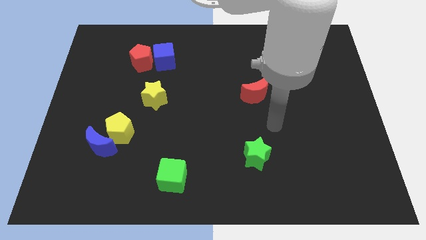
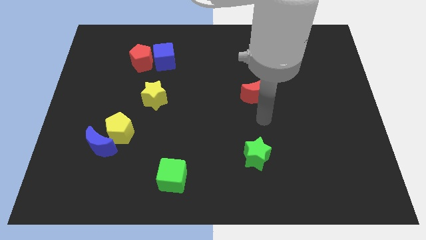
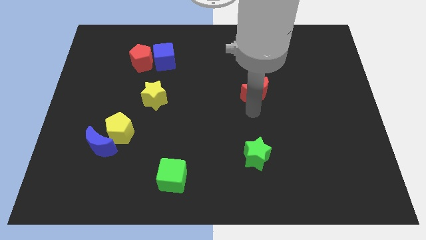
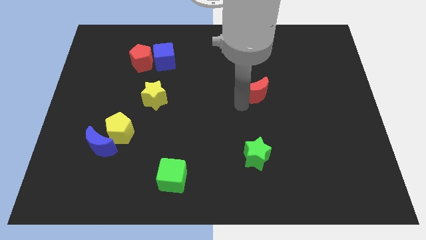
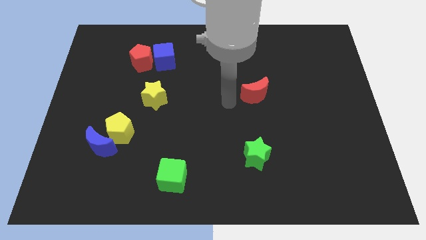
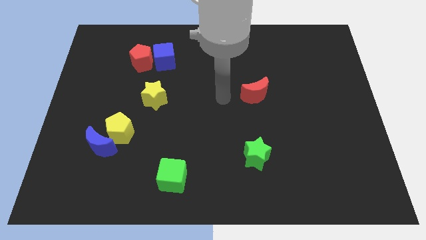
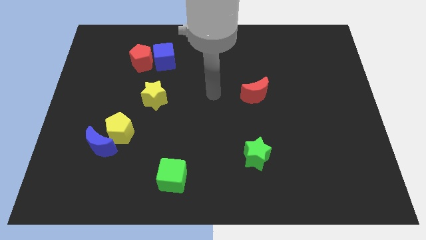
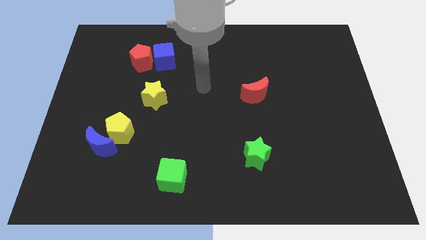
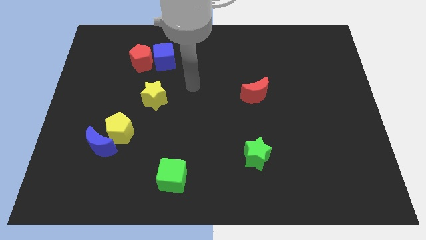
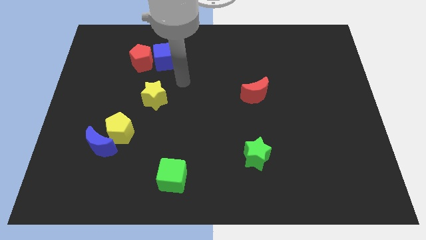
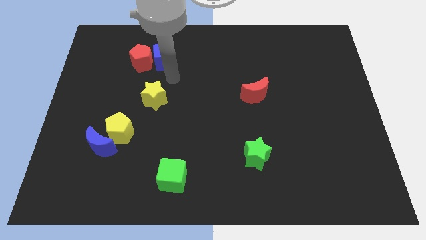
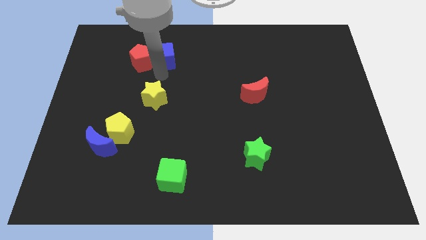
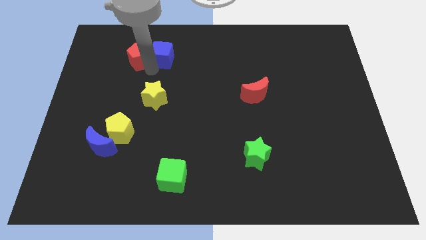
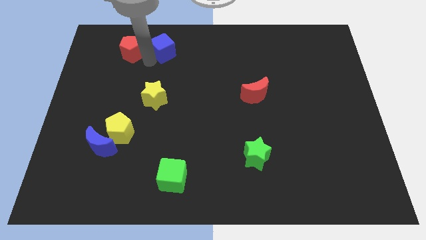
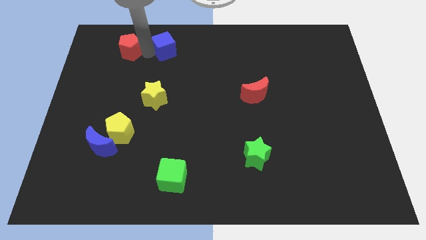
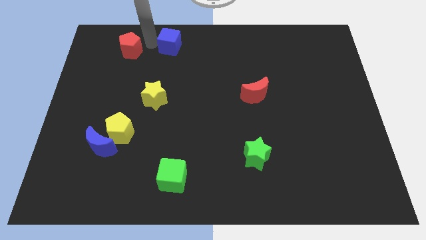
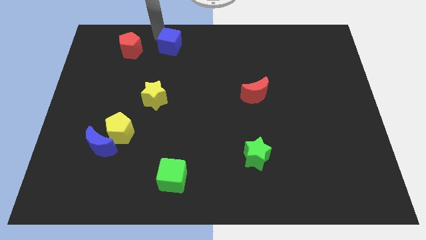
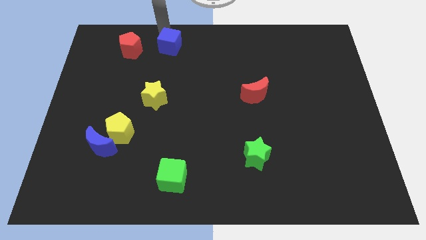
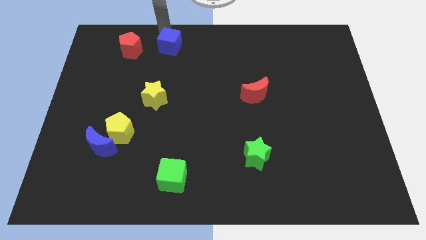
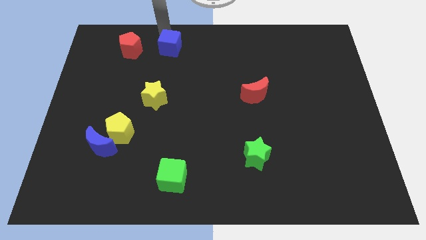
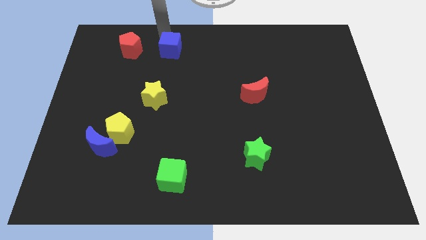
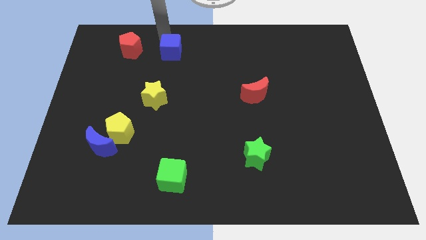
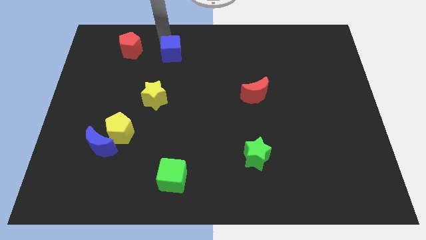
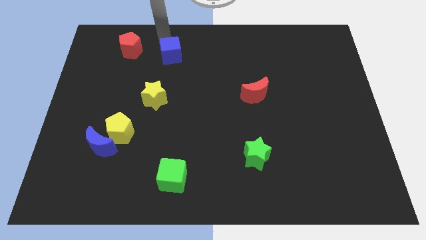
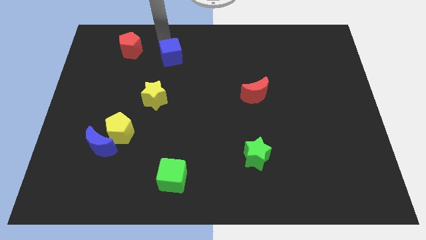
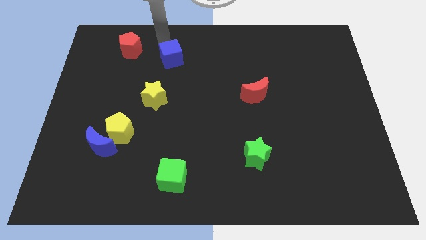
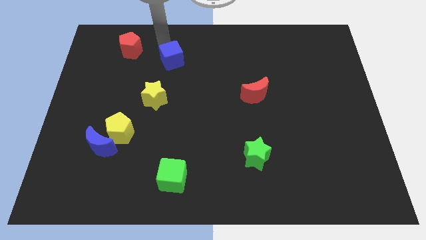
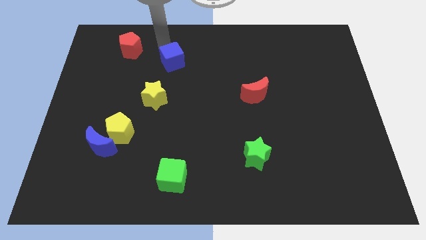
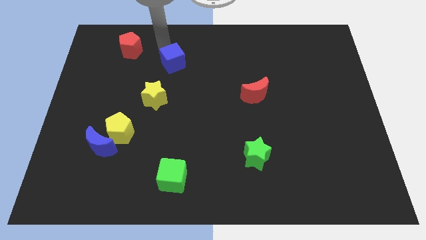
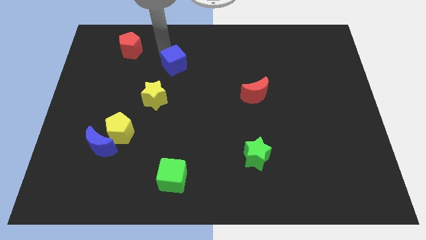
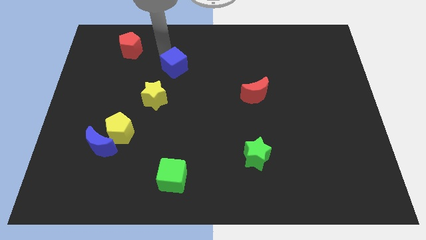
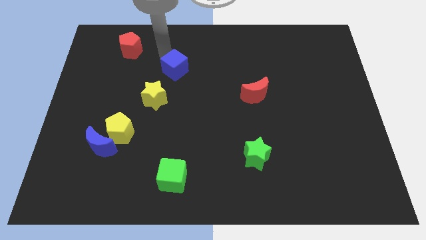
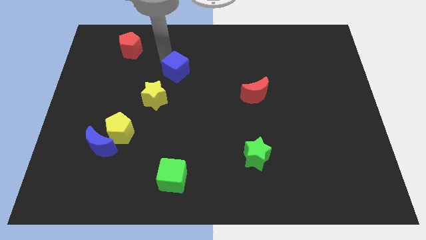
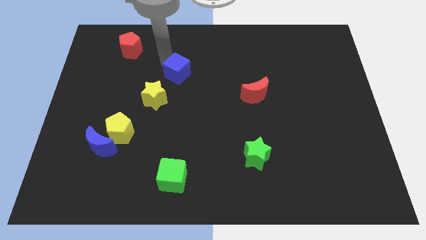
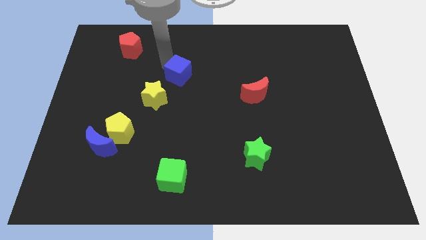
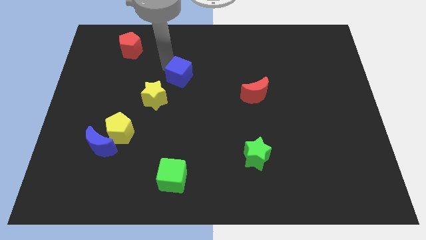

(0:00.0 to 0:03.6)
slide the blue cube a little diagonally downwards and right

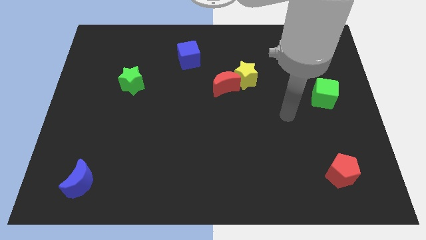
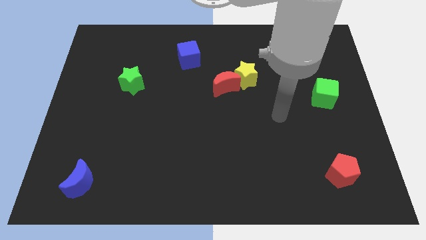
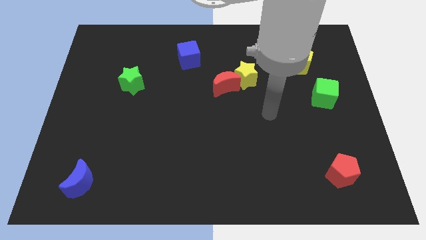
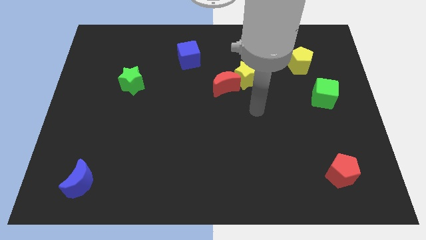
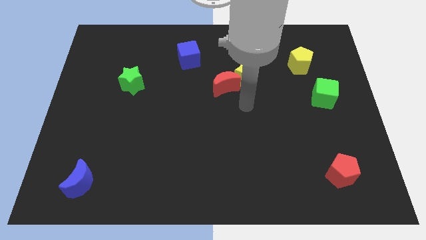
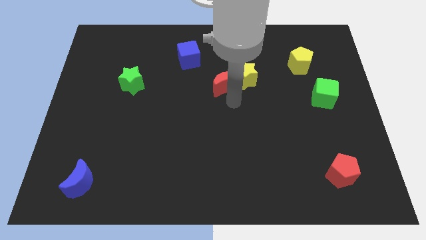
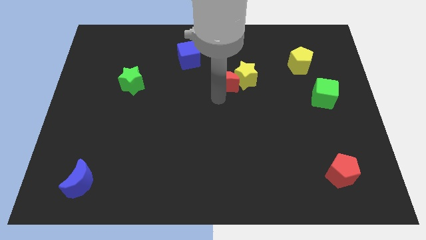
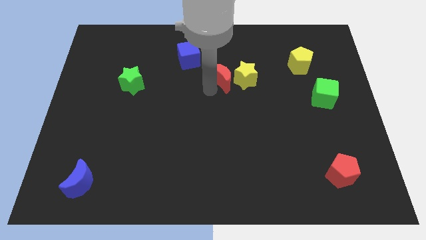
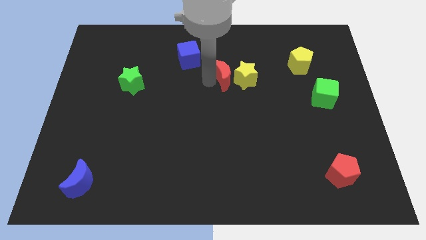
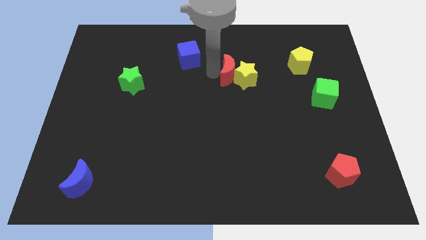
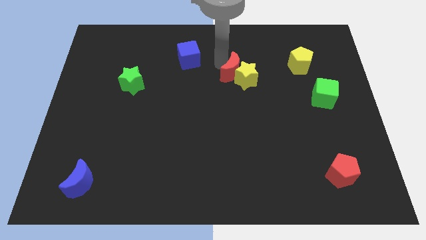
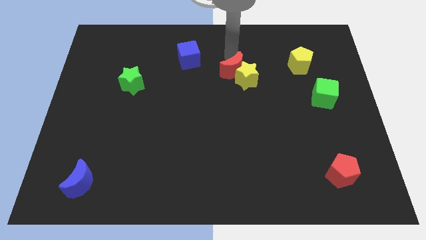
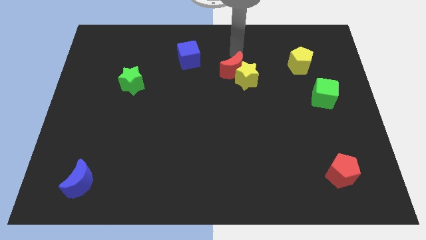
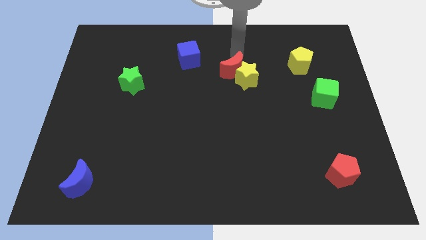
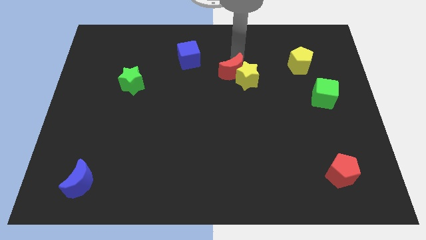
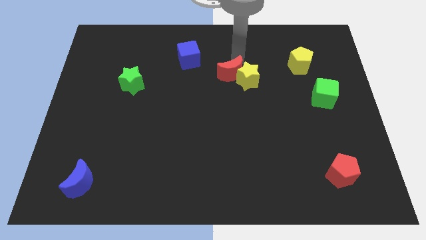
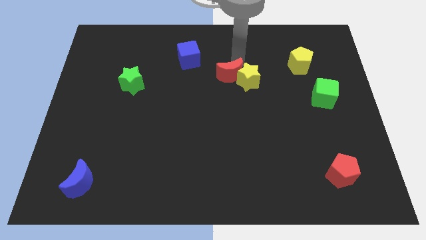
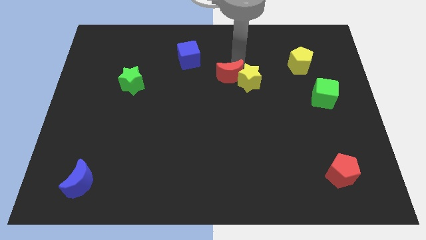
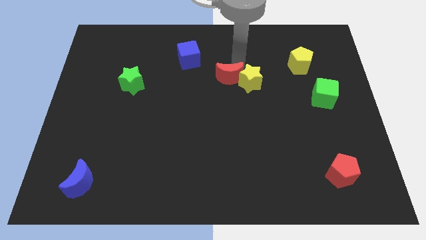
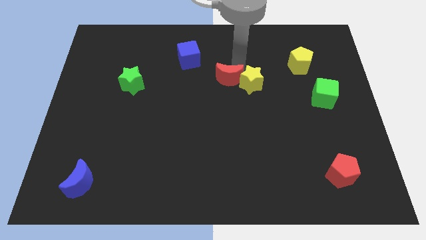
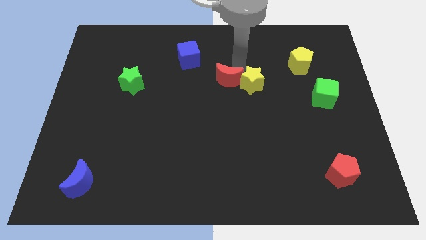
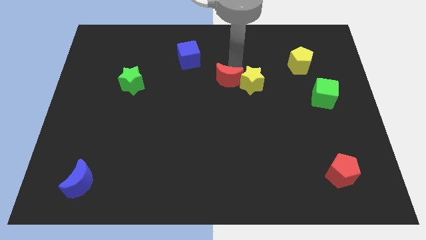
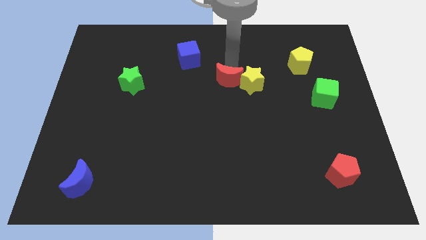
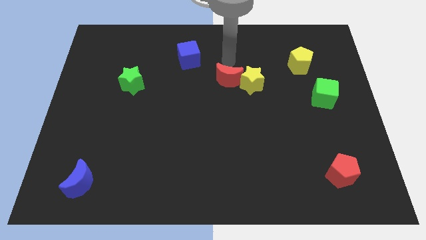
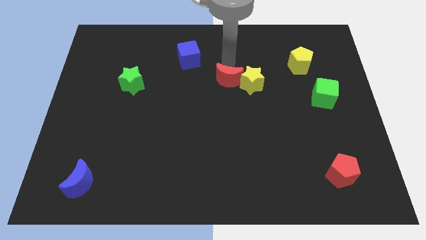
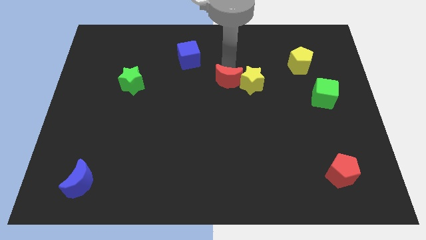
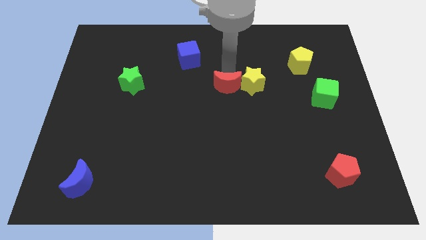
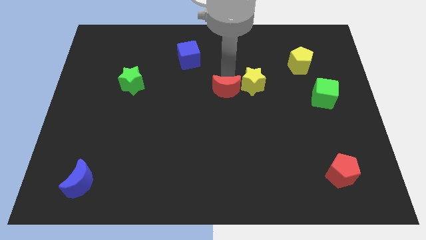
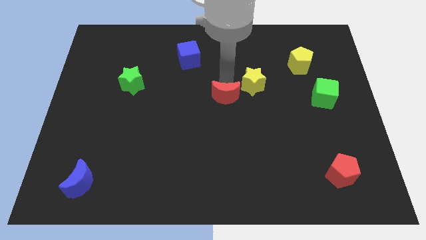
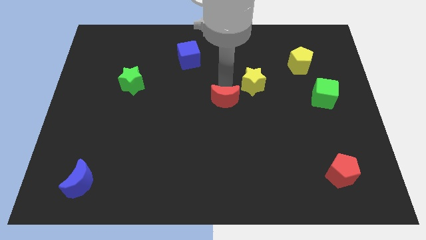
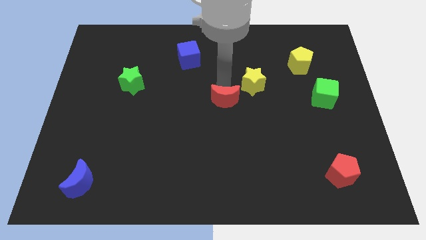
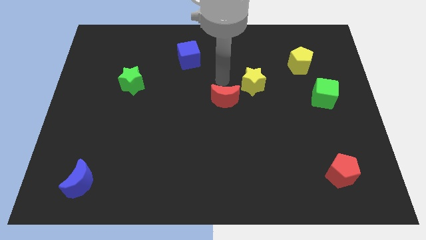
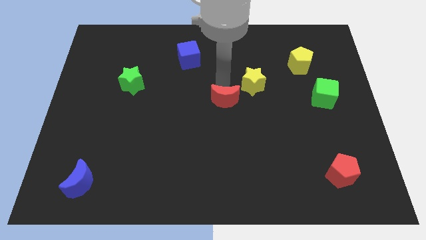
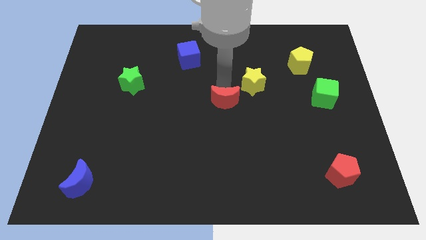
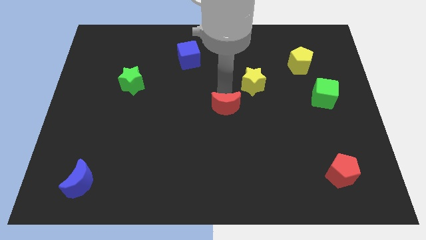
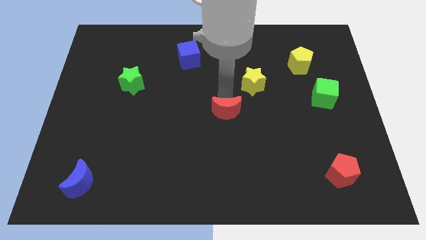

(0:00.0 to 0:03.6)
move the red moon downwards a little bit

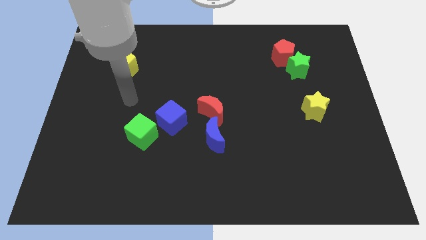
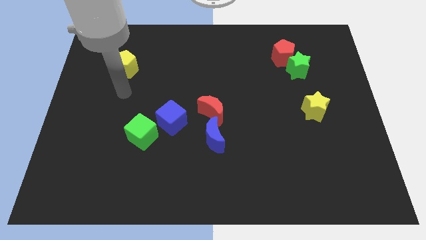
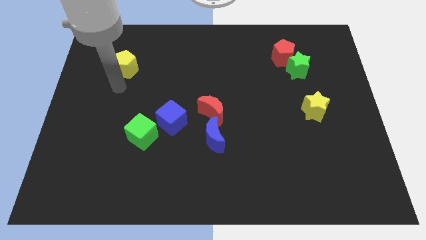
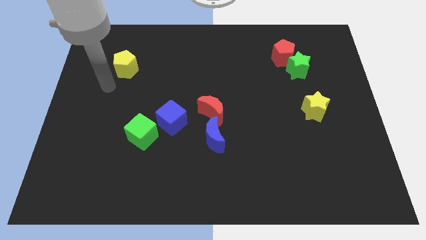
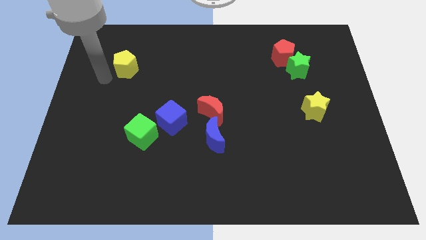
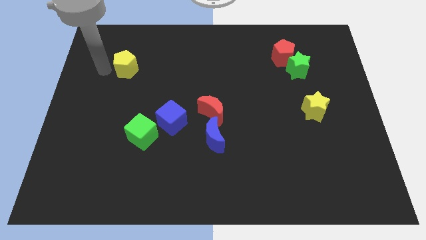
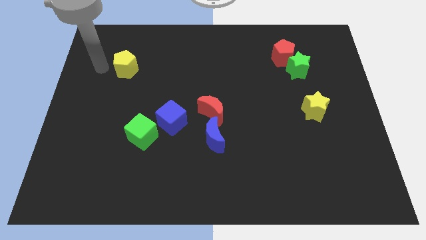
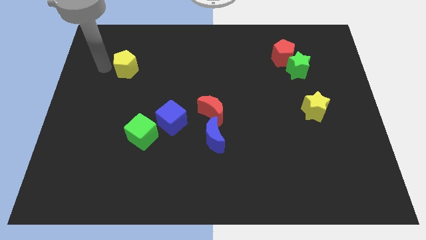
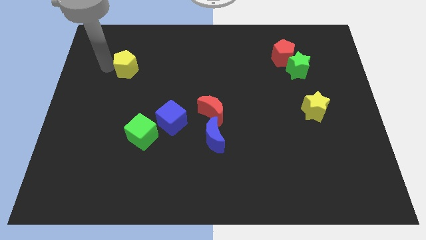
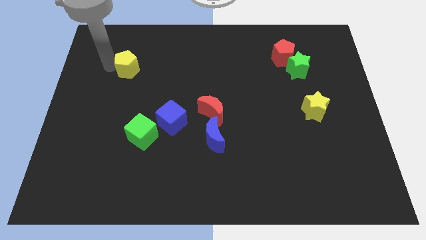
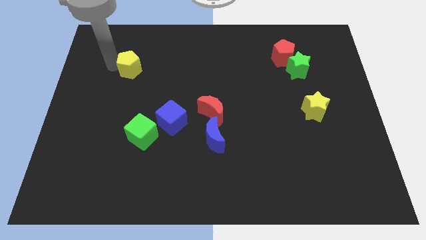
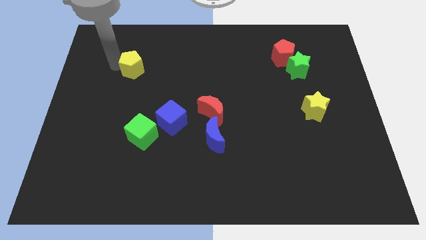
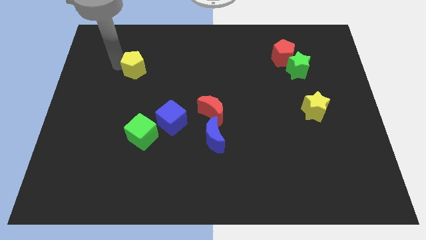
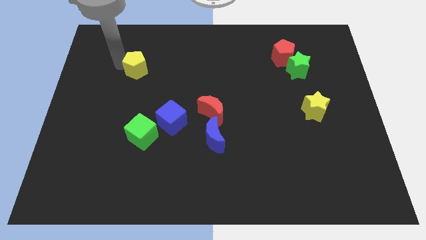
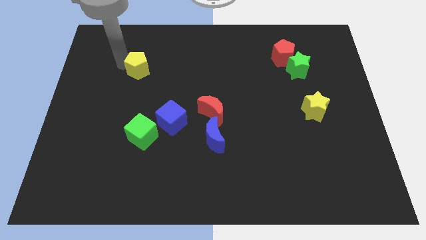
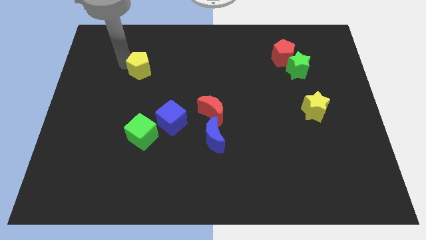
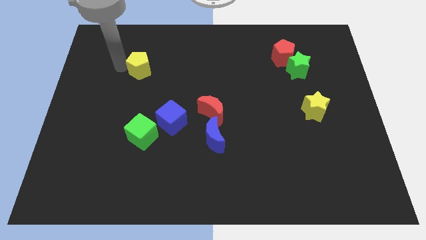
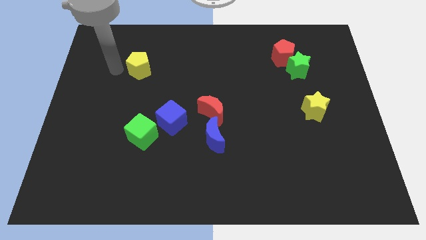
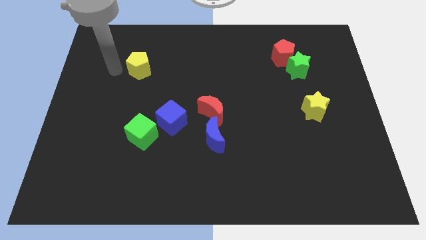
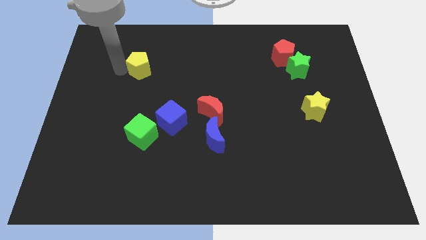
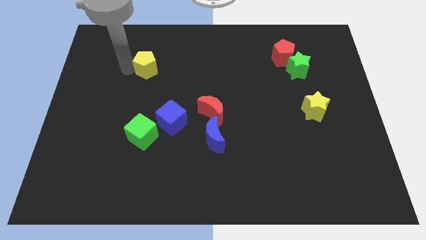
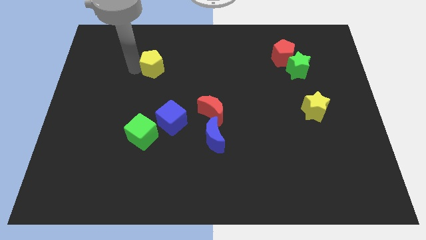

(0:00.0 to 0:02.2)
slide the yellow pentagon to the right a little bit
